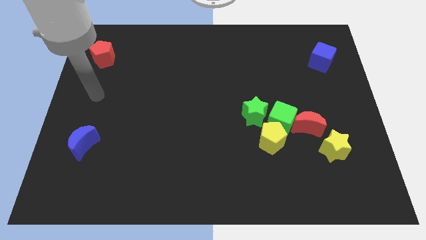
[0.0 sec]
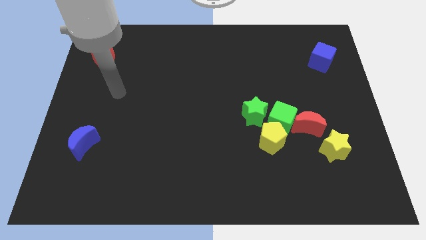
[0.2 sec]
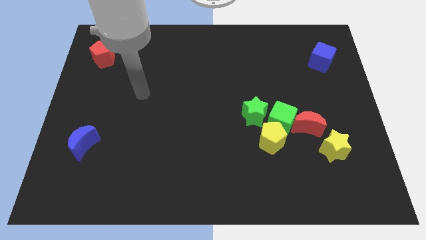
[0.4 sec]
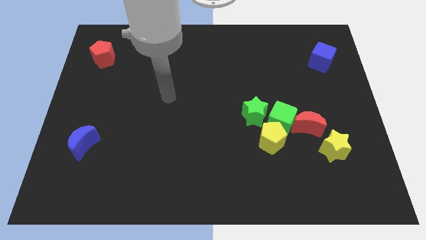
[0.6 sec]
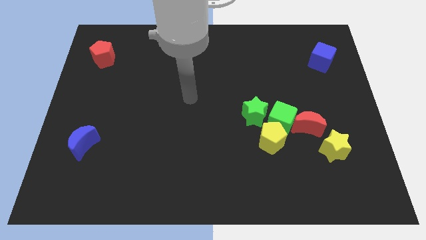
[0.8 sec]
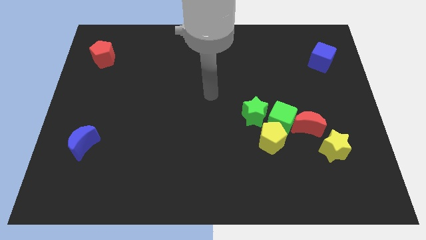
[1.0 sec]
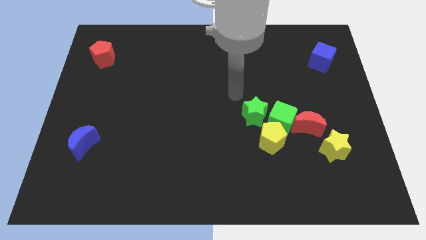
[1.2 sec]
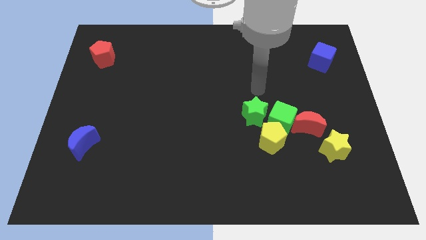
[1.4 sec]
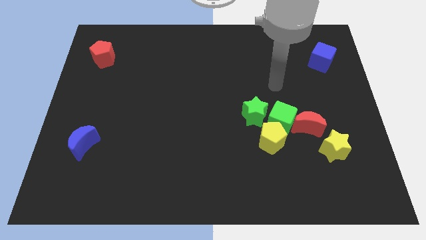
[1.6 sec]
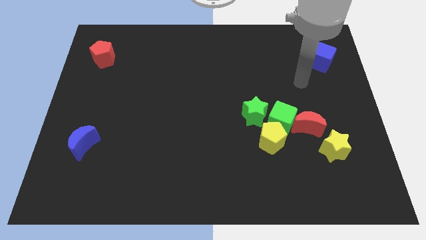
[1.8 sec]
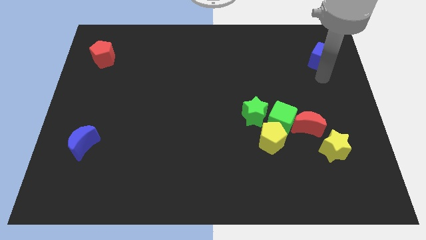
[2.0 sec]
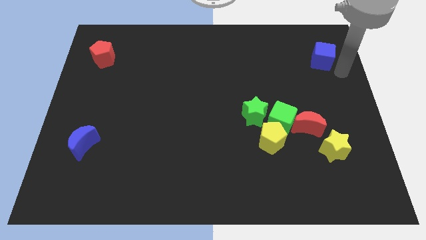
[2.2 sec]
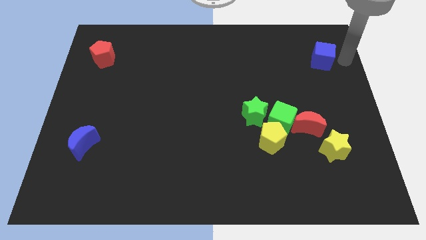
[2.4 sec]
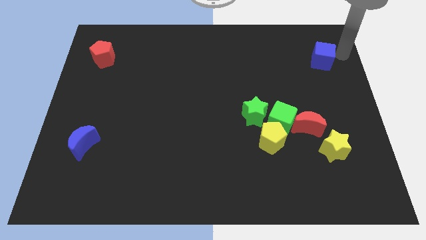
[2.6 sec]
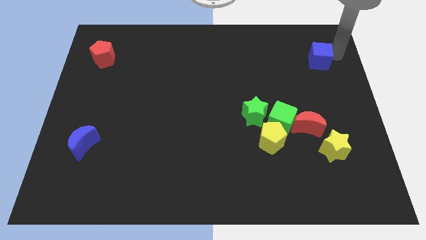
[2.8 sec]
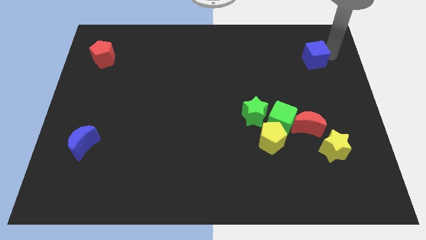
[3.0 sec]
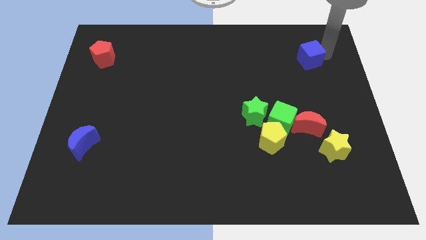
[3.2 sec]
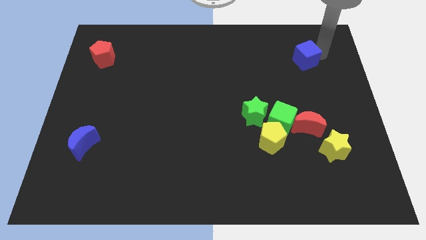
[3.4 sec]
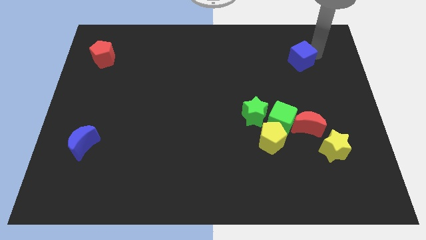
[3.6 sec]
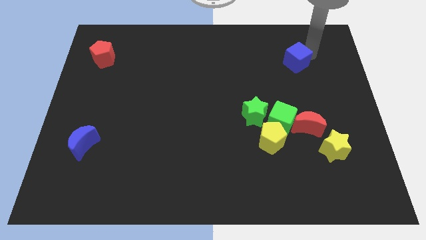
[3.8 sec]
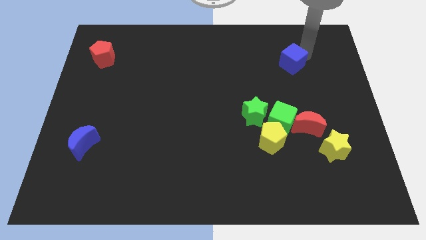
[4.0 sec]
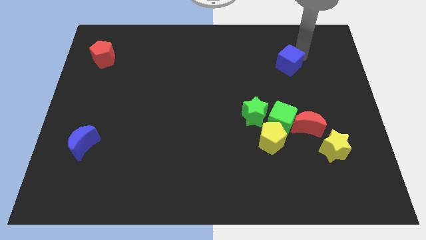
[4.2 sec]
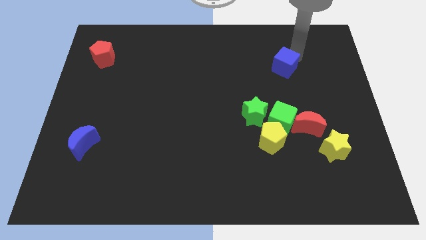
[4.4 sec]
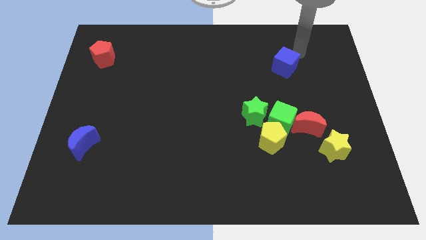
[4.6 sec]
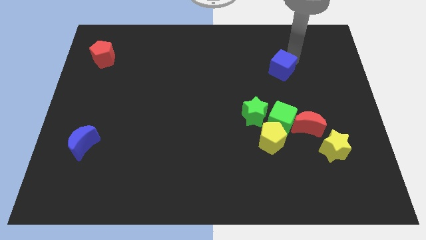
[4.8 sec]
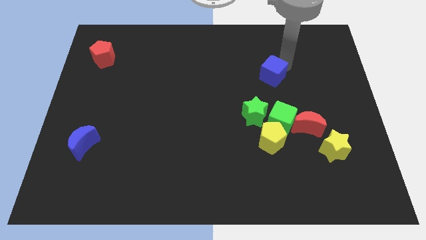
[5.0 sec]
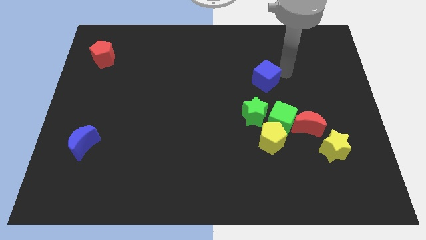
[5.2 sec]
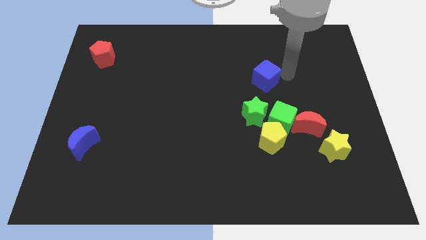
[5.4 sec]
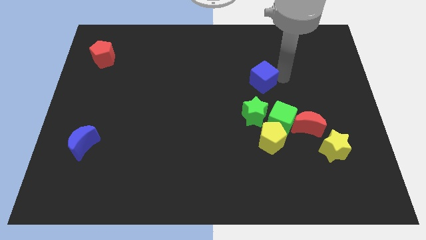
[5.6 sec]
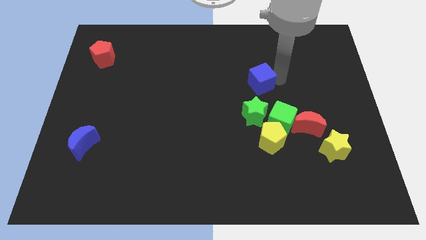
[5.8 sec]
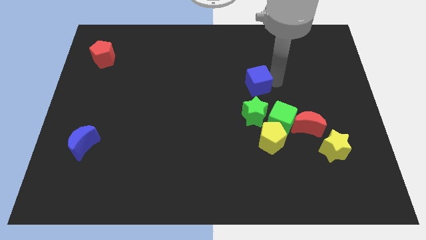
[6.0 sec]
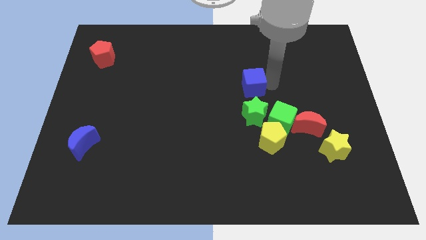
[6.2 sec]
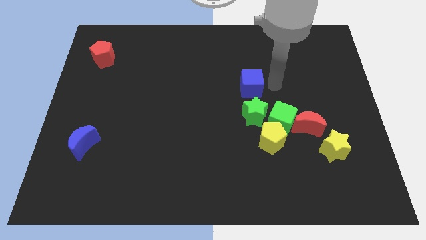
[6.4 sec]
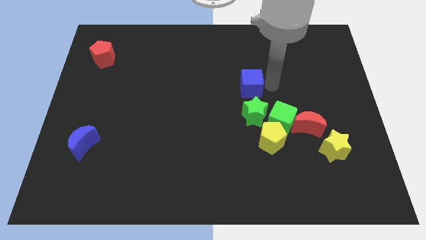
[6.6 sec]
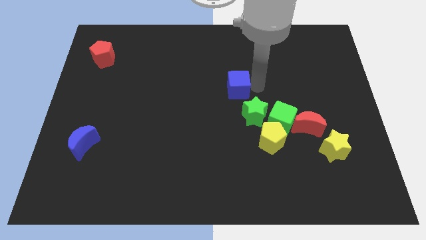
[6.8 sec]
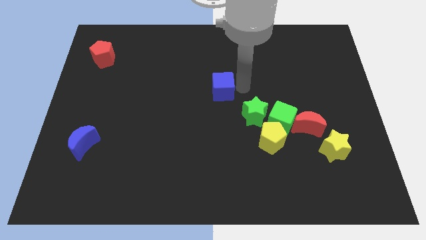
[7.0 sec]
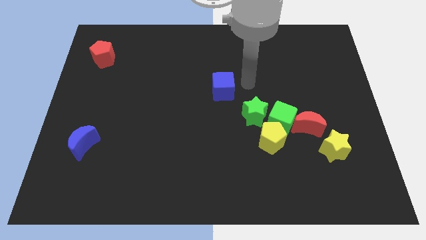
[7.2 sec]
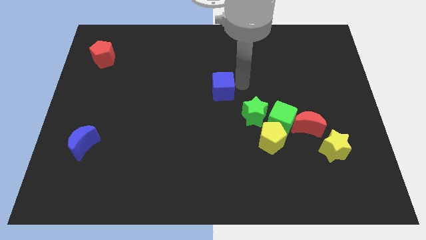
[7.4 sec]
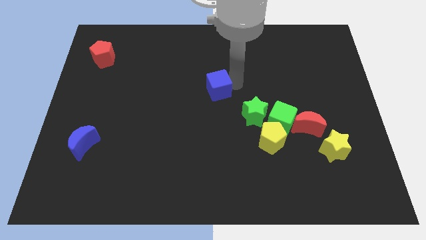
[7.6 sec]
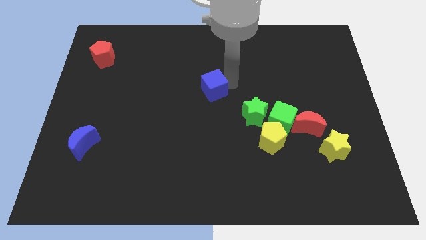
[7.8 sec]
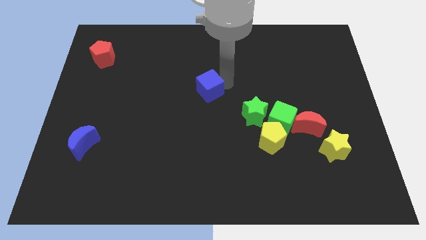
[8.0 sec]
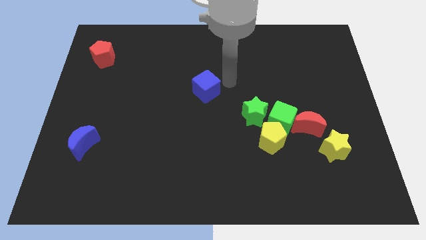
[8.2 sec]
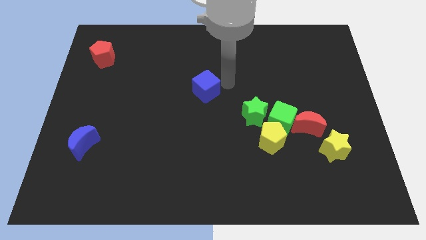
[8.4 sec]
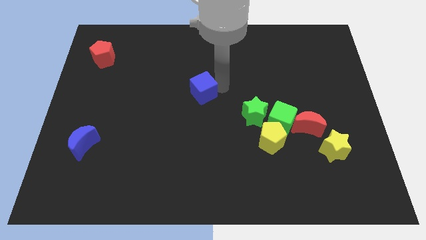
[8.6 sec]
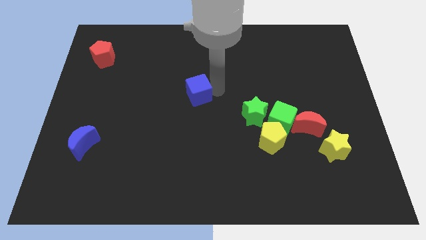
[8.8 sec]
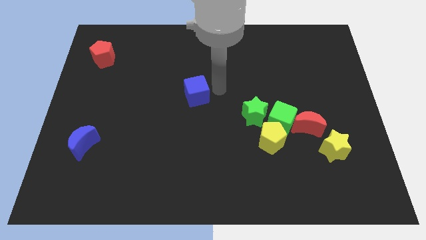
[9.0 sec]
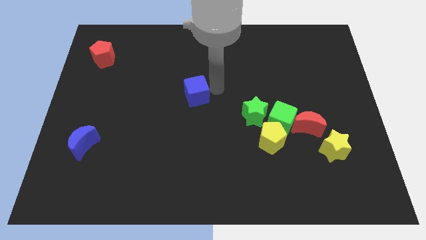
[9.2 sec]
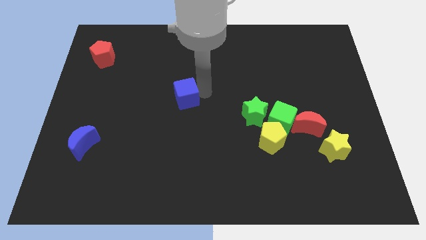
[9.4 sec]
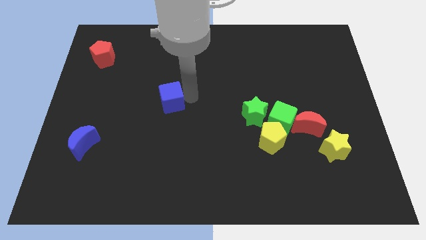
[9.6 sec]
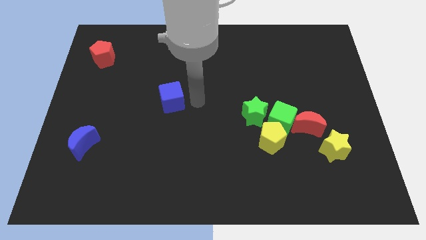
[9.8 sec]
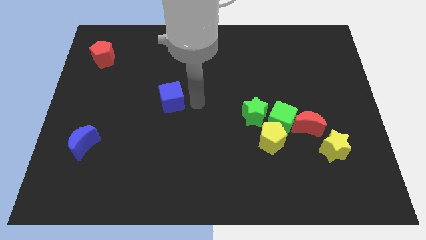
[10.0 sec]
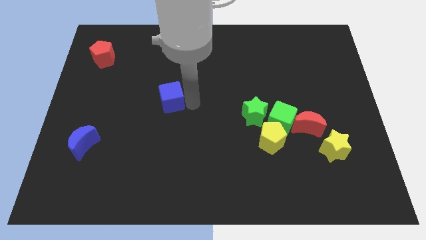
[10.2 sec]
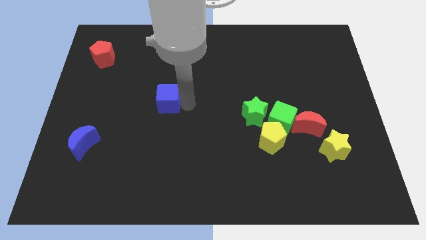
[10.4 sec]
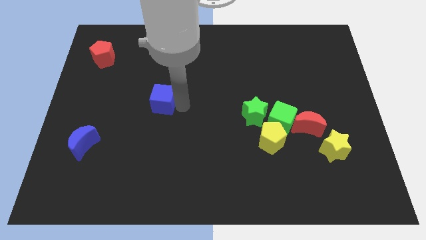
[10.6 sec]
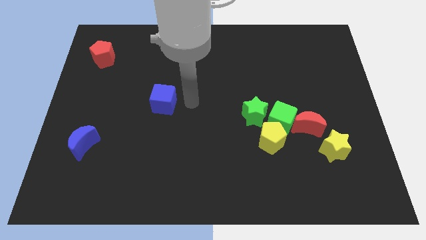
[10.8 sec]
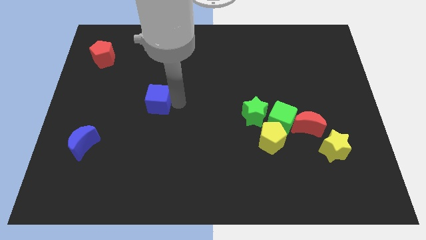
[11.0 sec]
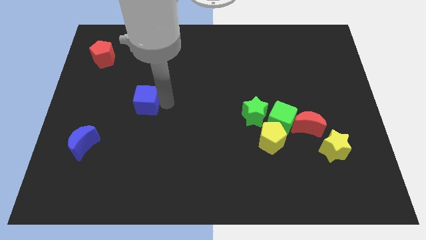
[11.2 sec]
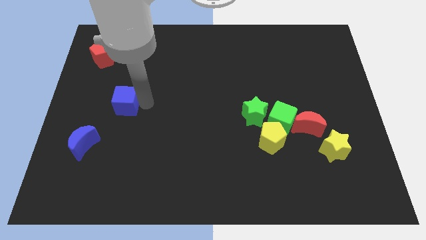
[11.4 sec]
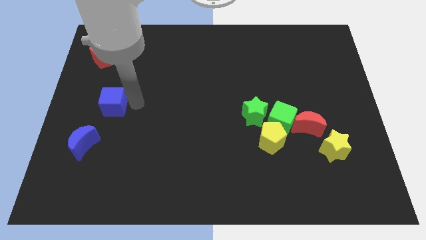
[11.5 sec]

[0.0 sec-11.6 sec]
move the blue cube to the top of the blue moon

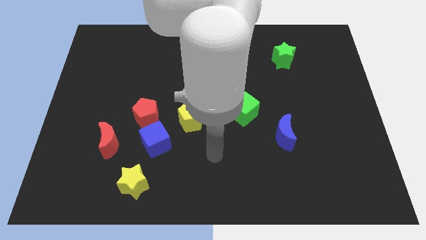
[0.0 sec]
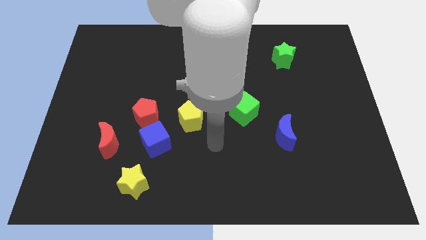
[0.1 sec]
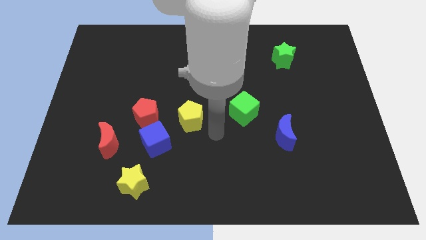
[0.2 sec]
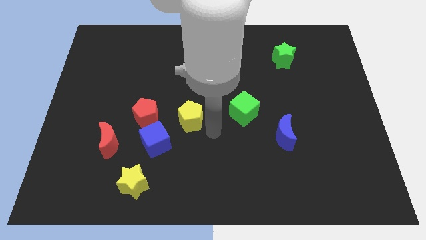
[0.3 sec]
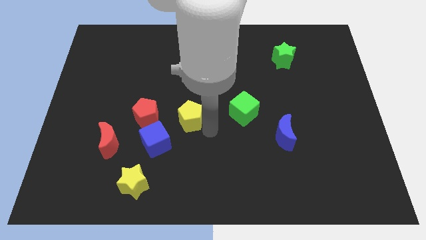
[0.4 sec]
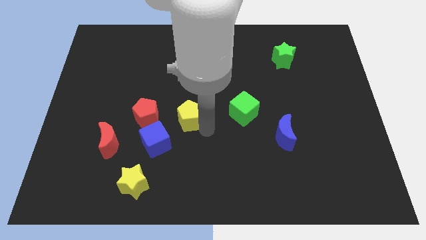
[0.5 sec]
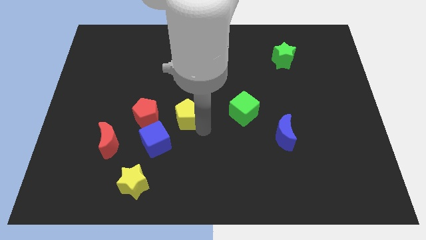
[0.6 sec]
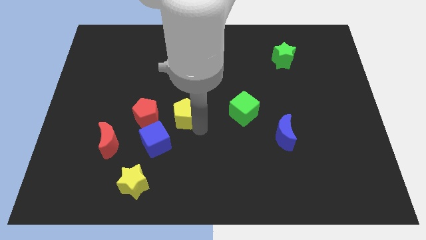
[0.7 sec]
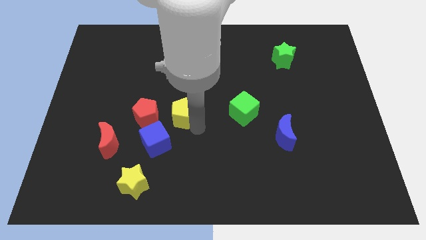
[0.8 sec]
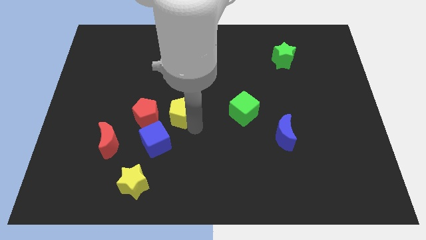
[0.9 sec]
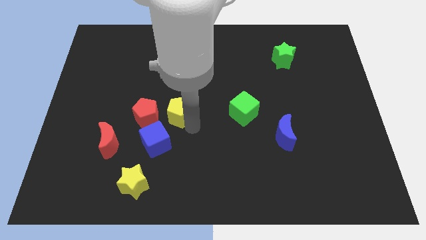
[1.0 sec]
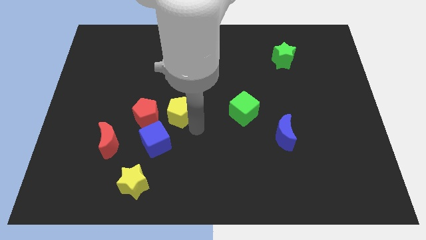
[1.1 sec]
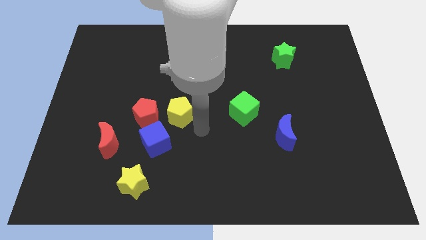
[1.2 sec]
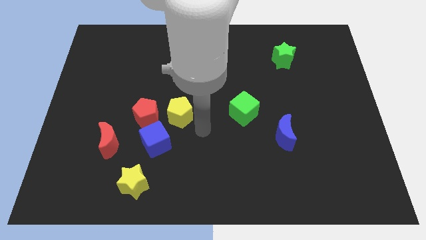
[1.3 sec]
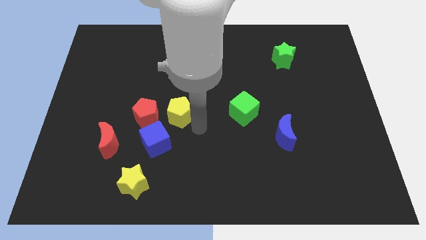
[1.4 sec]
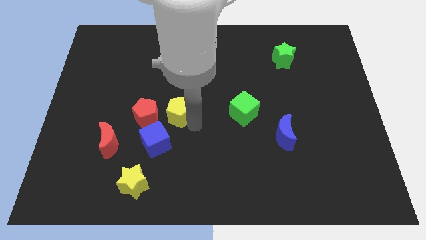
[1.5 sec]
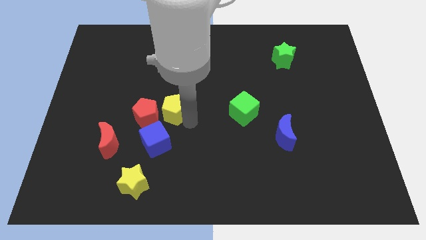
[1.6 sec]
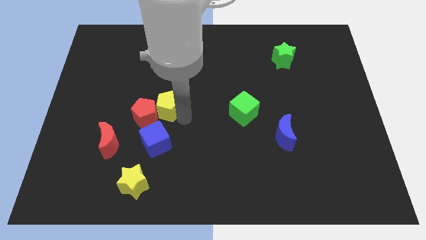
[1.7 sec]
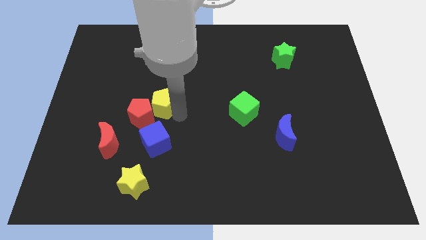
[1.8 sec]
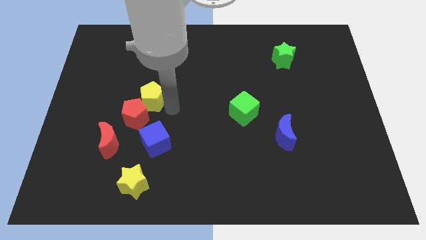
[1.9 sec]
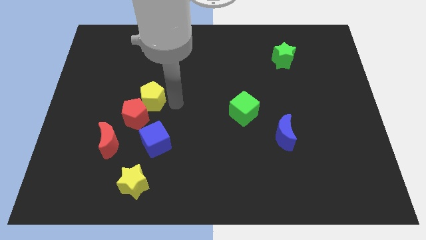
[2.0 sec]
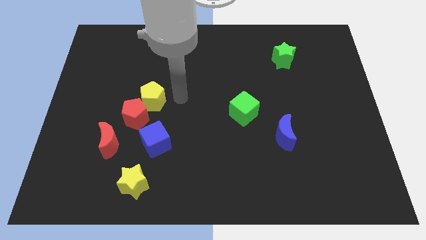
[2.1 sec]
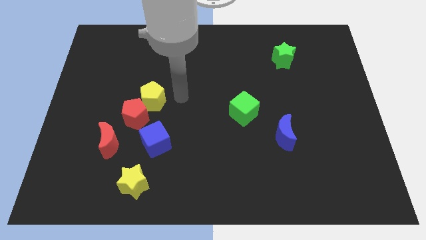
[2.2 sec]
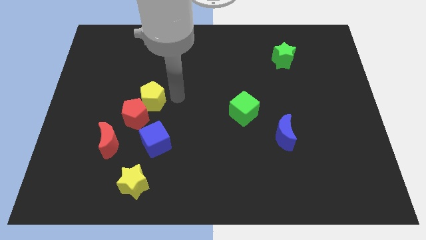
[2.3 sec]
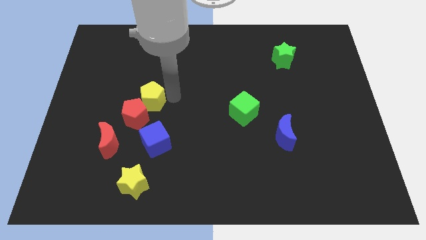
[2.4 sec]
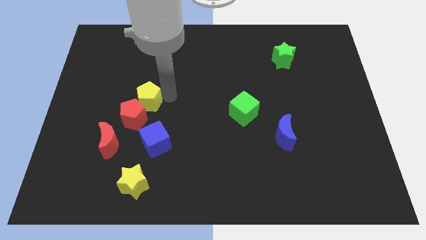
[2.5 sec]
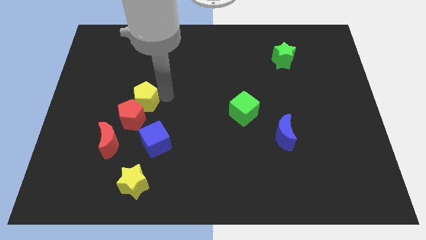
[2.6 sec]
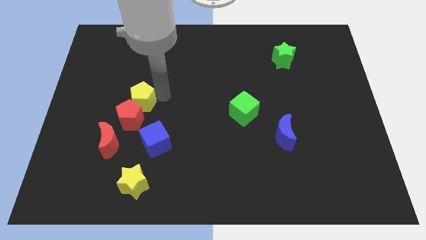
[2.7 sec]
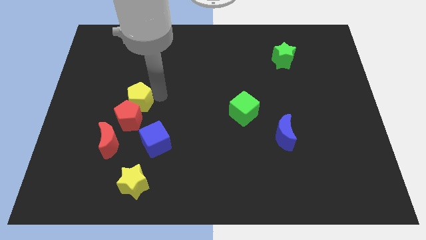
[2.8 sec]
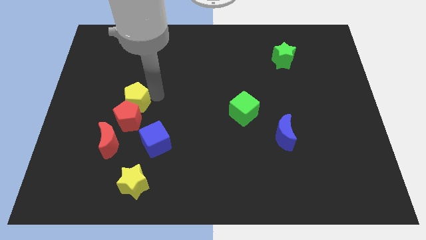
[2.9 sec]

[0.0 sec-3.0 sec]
put the yellow pentagon to the top side of the red moon
